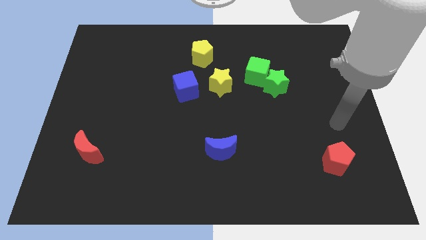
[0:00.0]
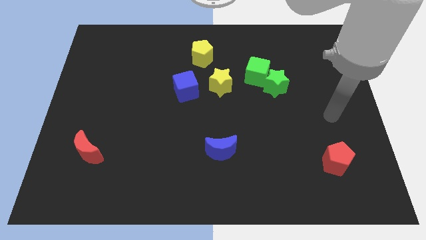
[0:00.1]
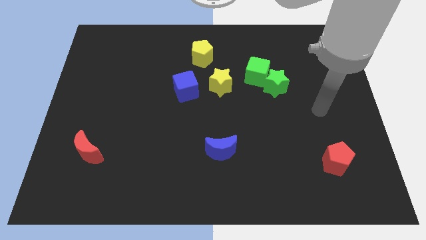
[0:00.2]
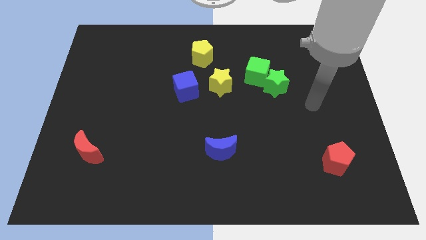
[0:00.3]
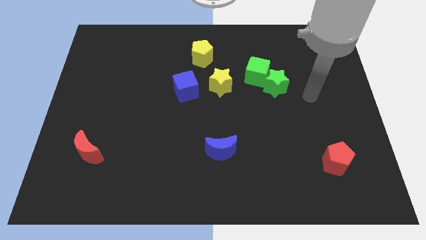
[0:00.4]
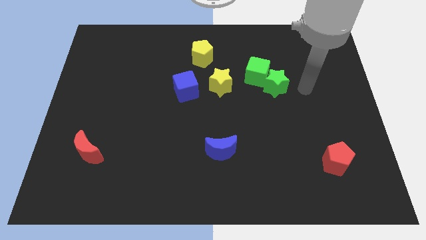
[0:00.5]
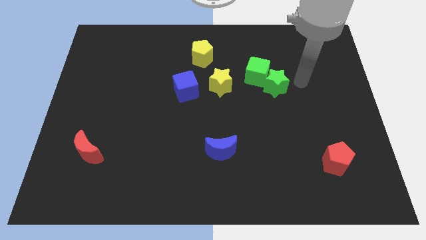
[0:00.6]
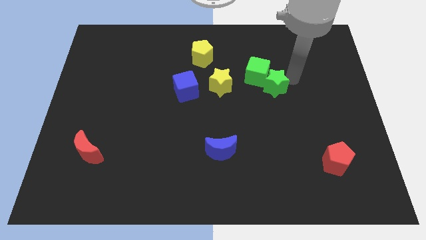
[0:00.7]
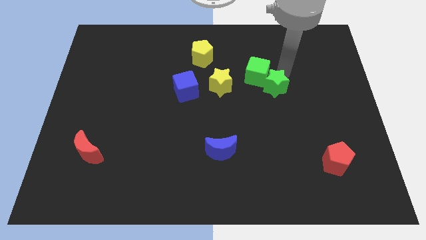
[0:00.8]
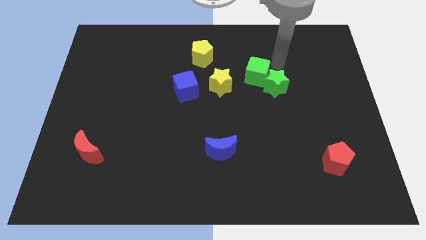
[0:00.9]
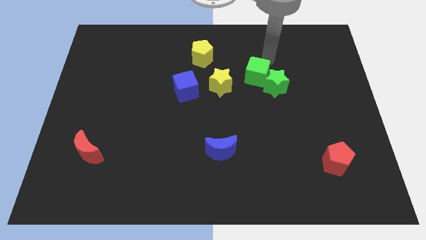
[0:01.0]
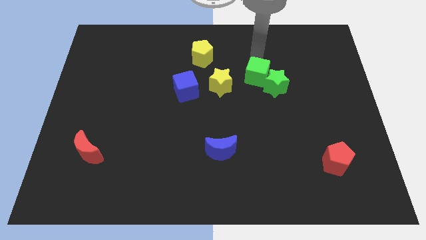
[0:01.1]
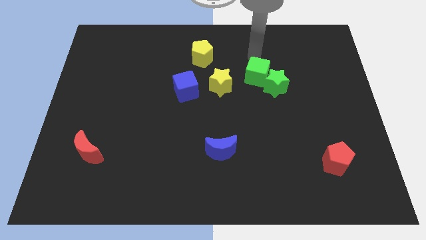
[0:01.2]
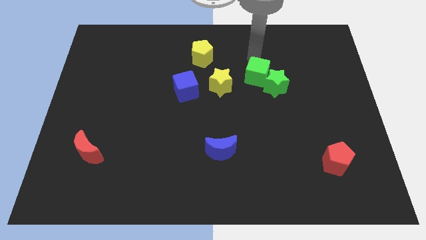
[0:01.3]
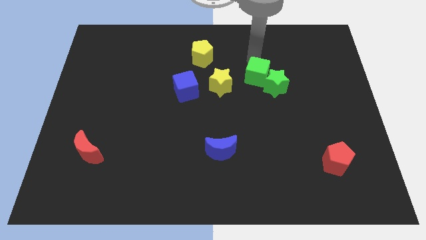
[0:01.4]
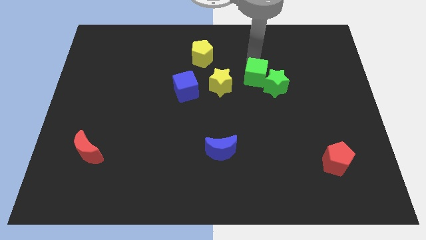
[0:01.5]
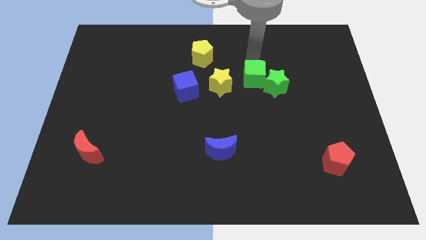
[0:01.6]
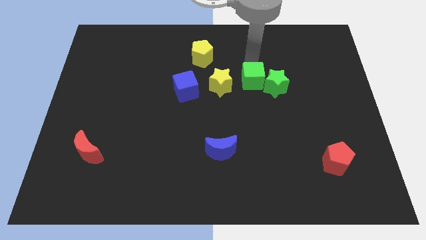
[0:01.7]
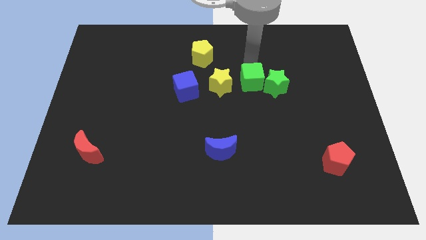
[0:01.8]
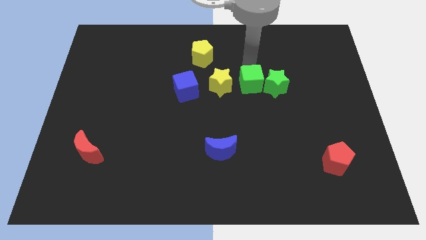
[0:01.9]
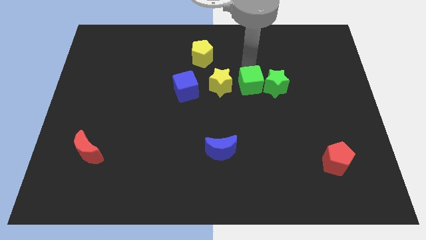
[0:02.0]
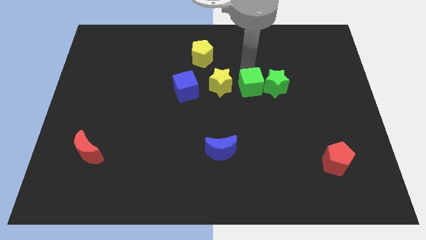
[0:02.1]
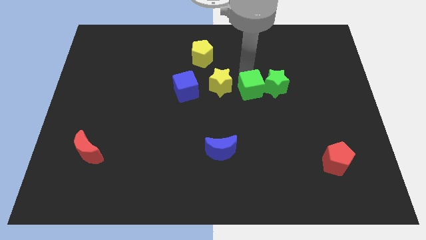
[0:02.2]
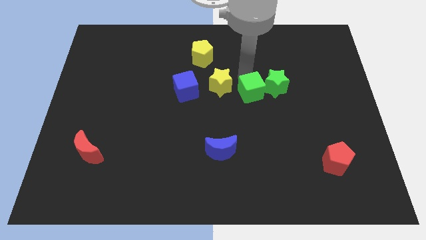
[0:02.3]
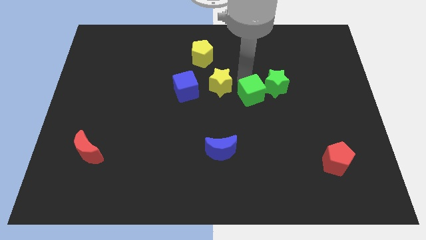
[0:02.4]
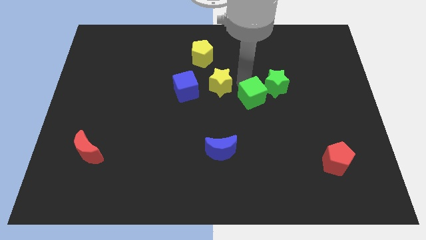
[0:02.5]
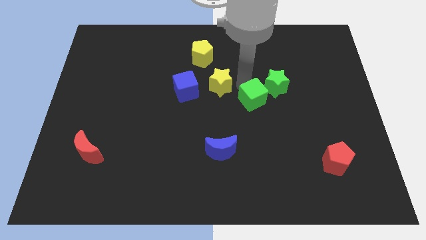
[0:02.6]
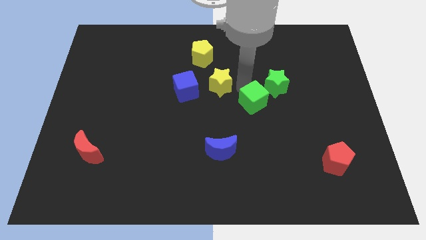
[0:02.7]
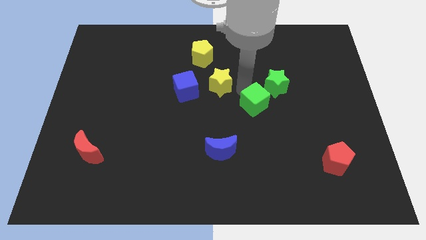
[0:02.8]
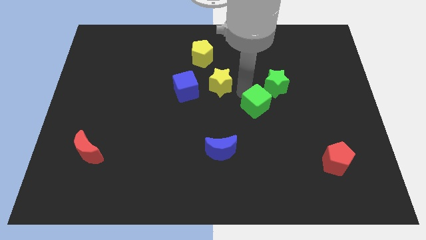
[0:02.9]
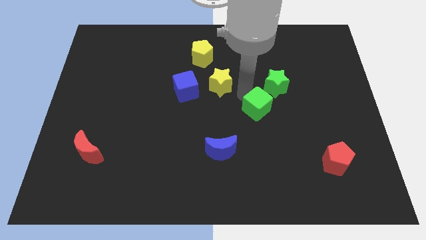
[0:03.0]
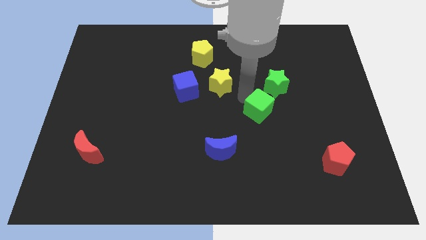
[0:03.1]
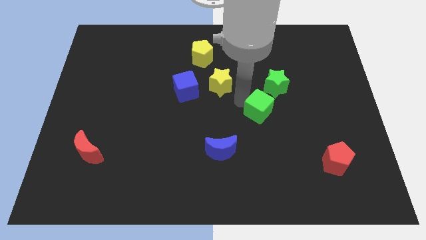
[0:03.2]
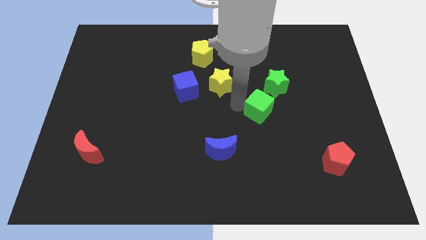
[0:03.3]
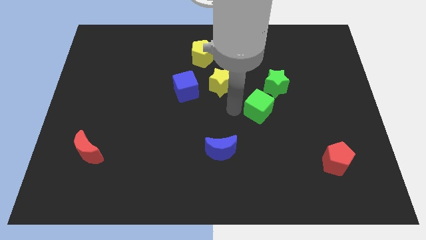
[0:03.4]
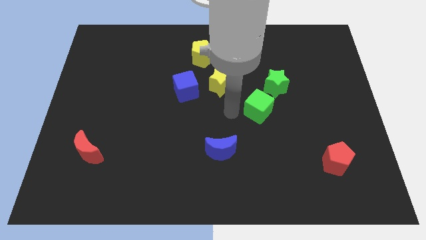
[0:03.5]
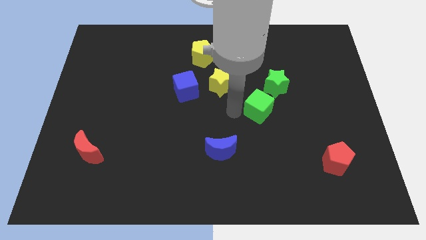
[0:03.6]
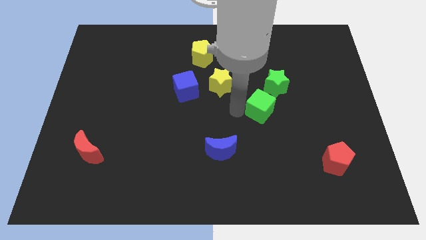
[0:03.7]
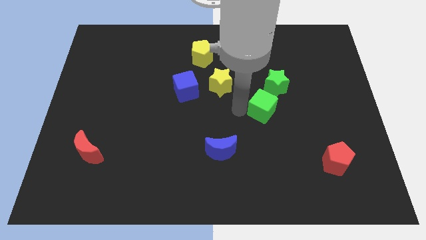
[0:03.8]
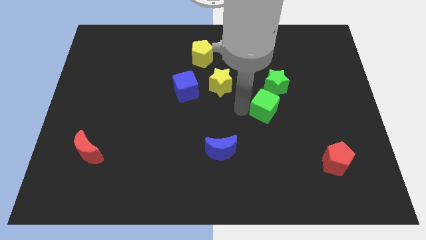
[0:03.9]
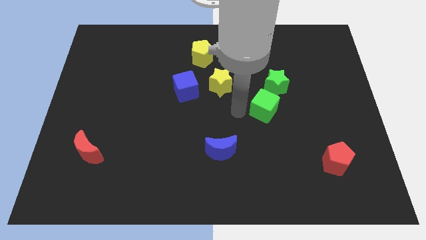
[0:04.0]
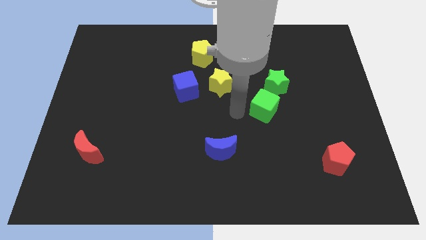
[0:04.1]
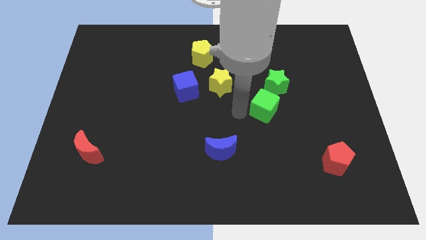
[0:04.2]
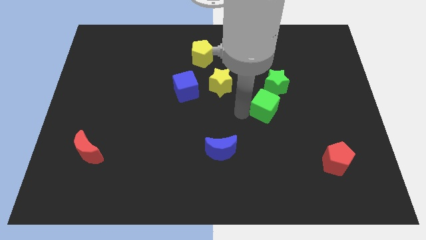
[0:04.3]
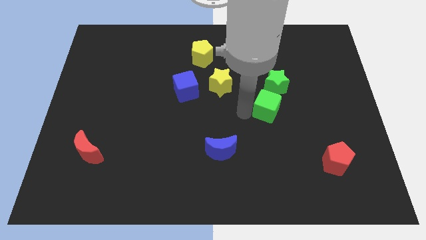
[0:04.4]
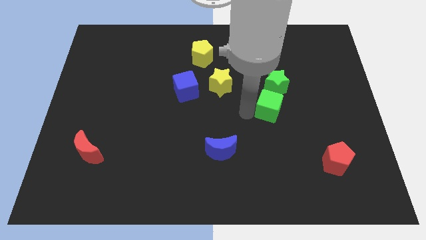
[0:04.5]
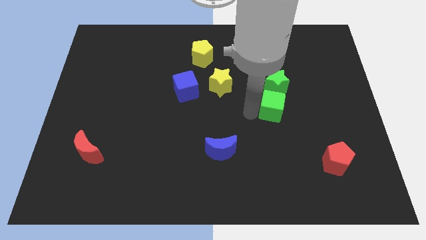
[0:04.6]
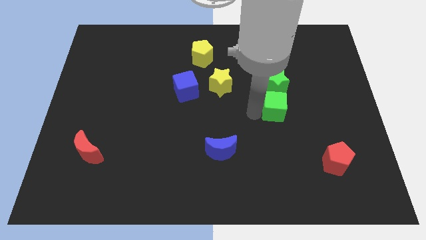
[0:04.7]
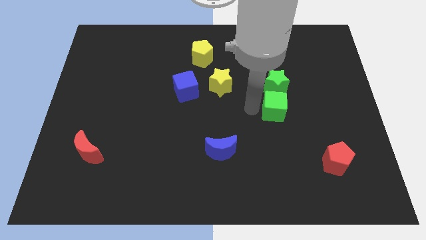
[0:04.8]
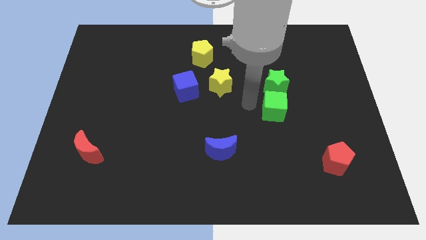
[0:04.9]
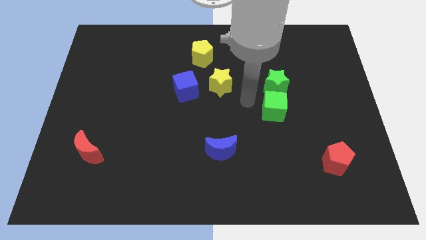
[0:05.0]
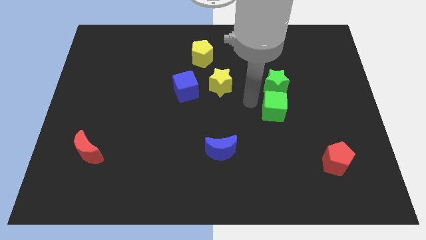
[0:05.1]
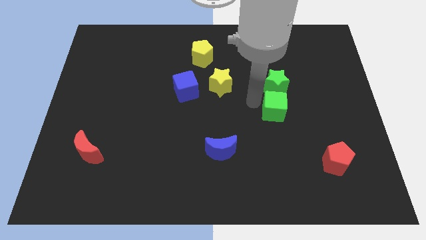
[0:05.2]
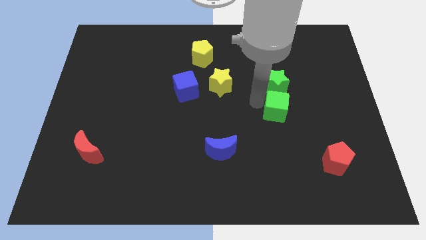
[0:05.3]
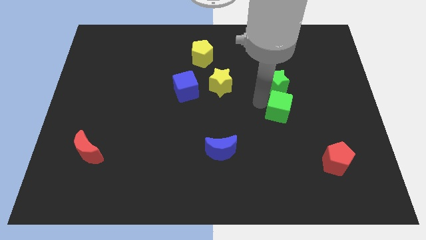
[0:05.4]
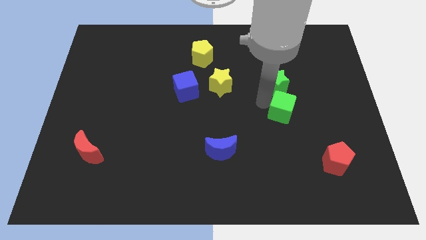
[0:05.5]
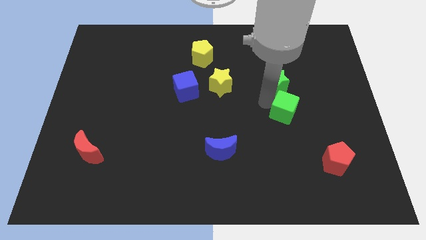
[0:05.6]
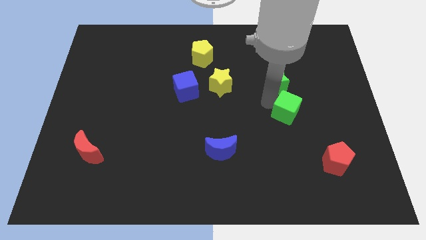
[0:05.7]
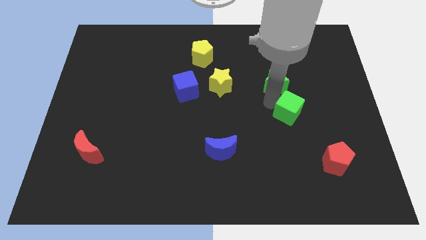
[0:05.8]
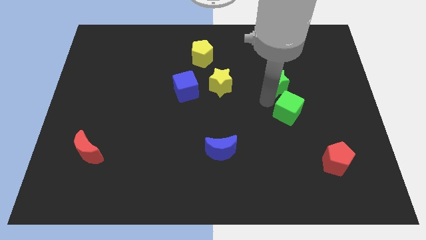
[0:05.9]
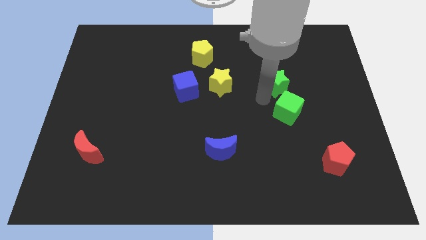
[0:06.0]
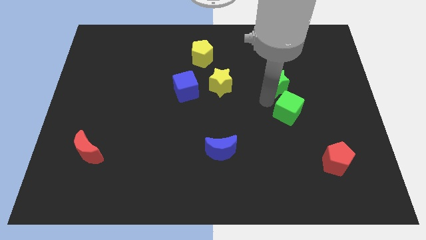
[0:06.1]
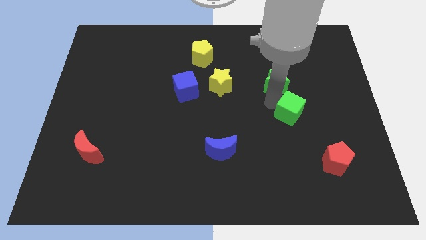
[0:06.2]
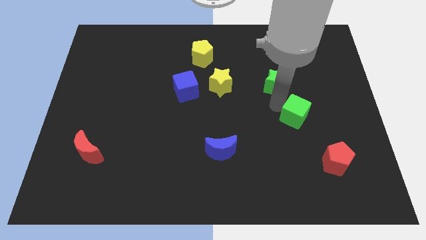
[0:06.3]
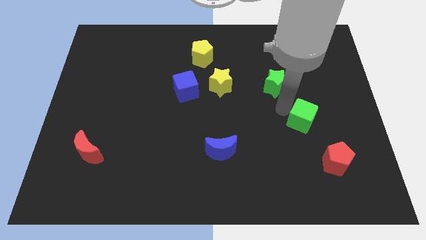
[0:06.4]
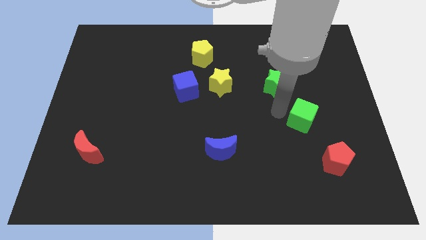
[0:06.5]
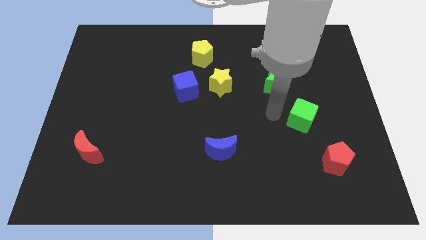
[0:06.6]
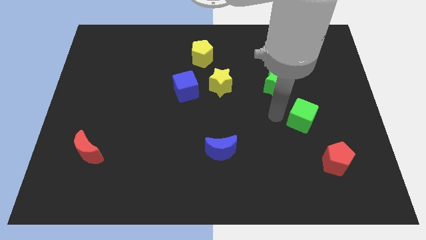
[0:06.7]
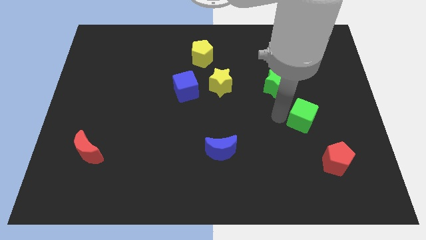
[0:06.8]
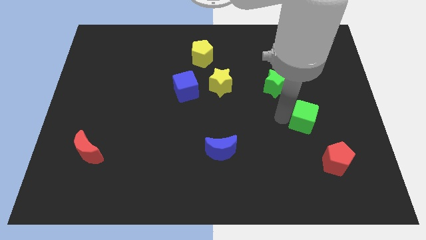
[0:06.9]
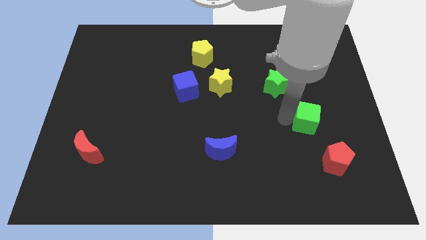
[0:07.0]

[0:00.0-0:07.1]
put the green cube above the red pentagon
